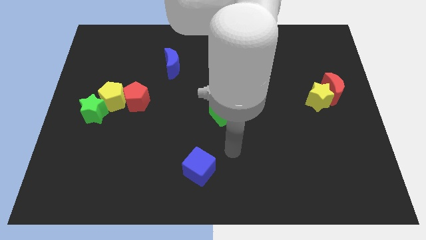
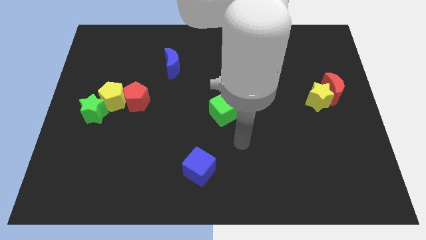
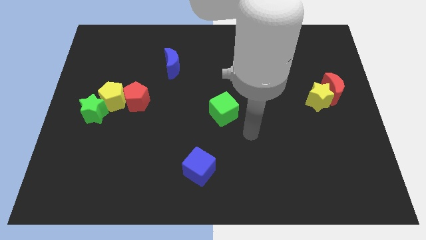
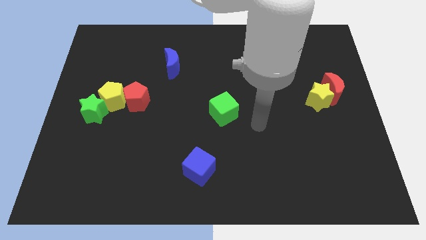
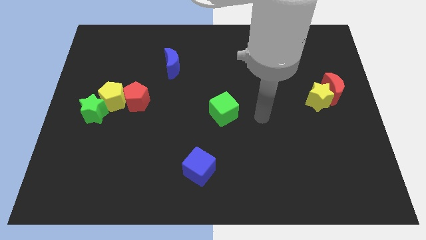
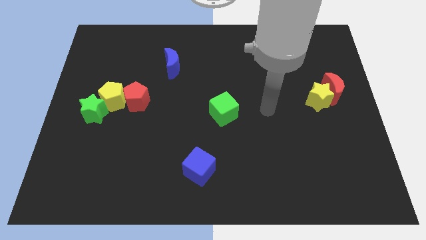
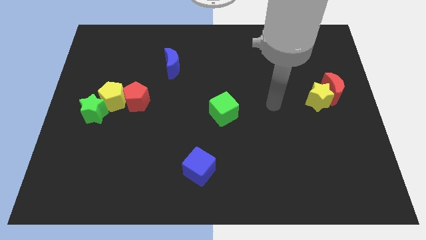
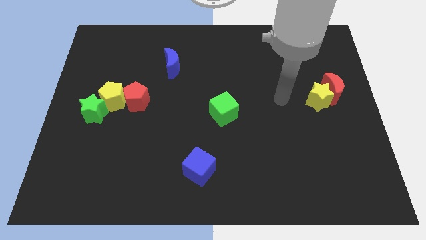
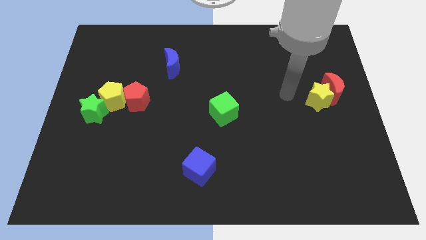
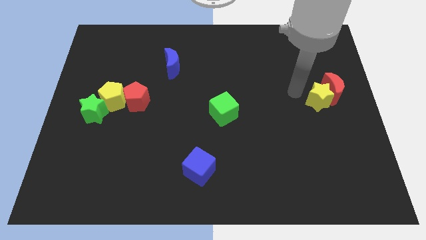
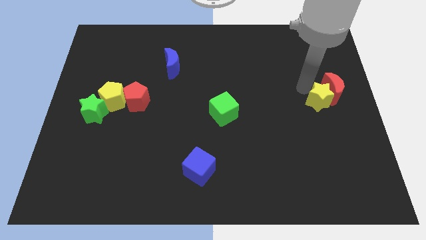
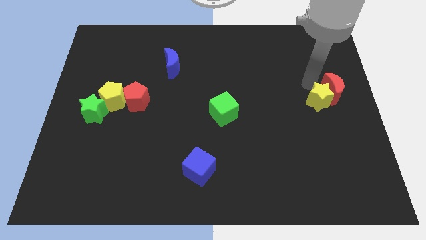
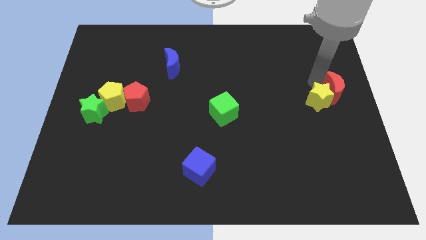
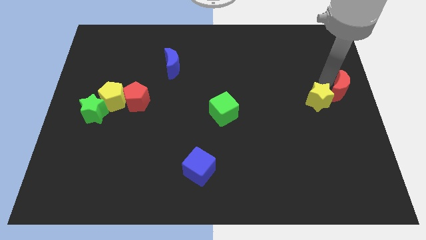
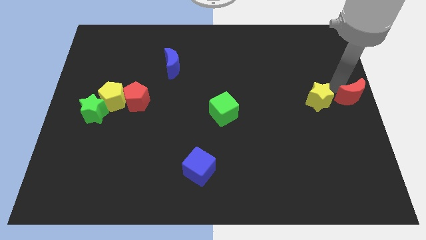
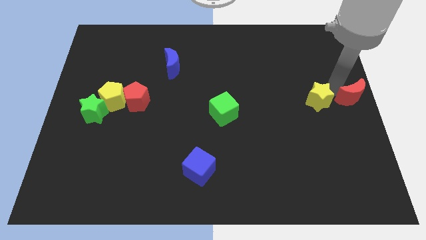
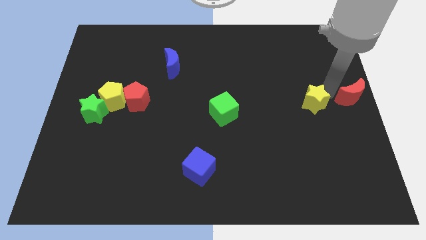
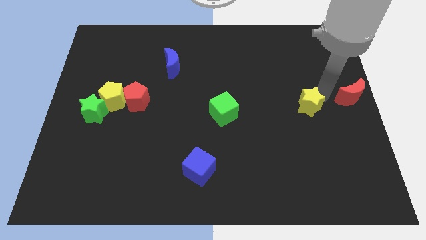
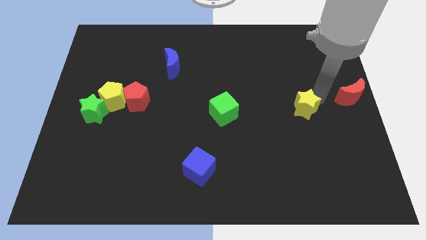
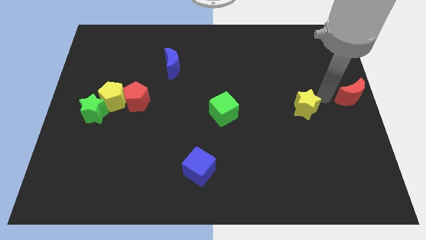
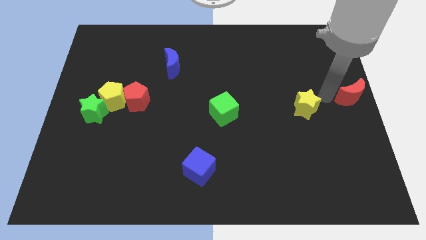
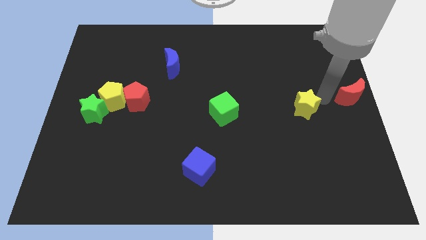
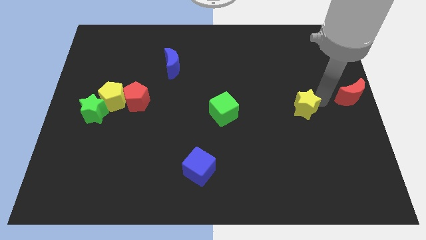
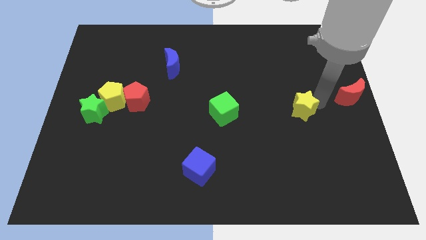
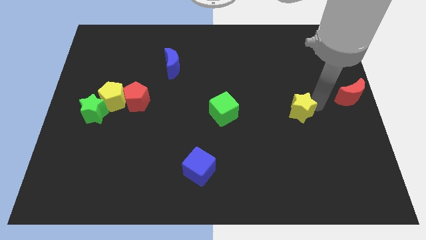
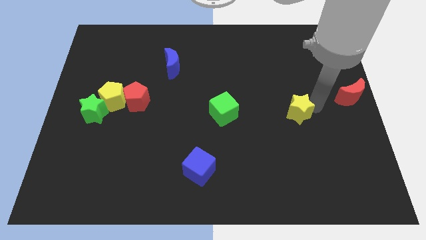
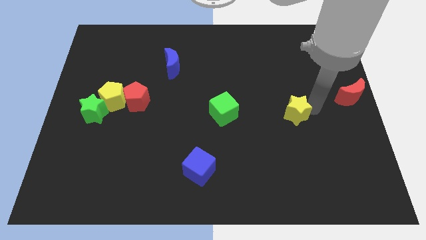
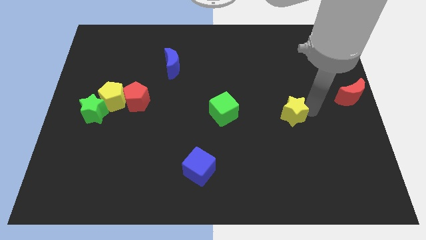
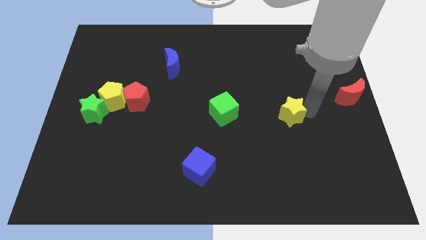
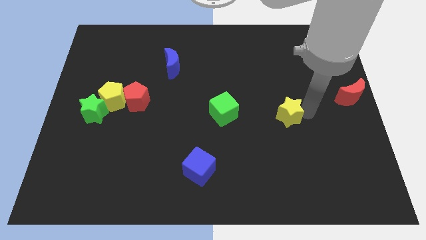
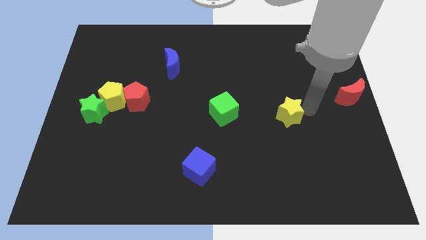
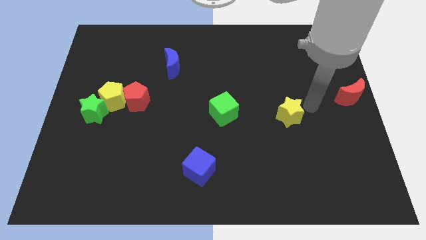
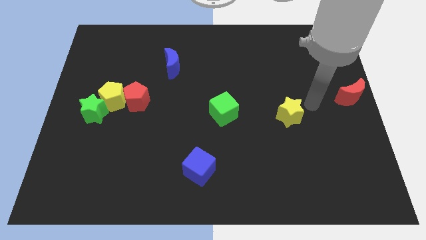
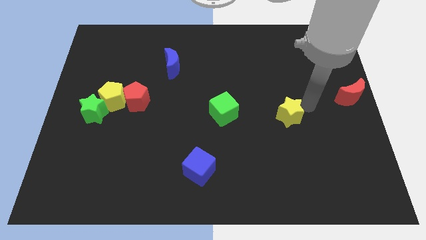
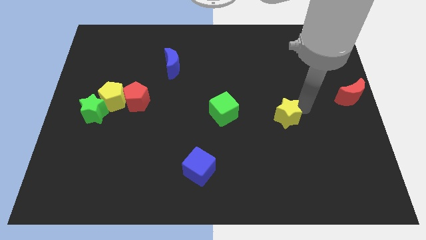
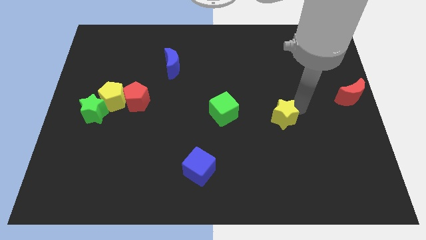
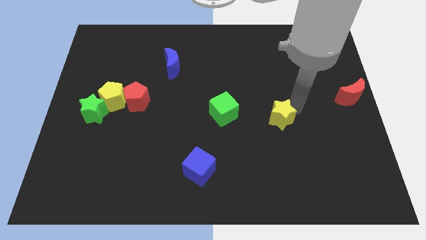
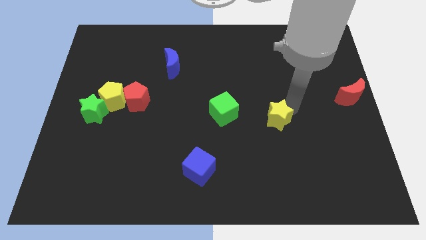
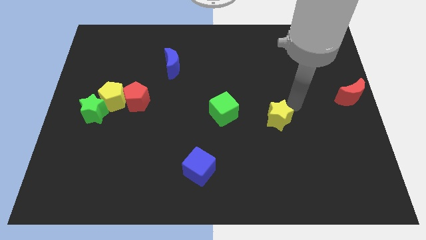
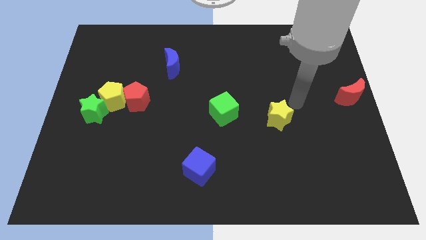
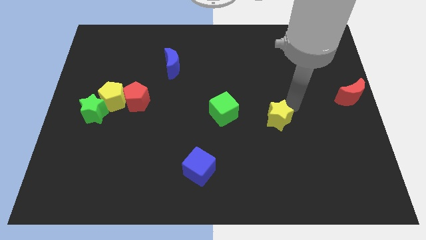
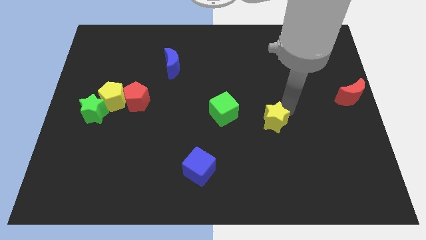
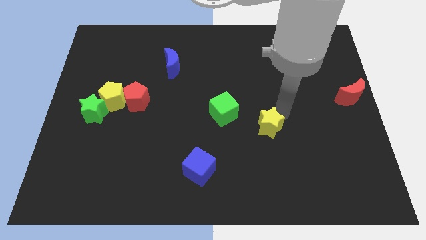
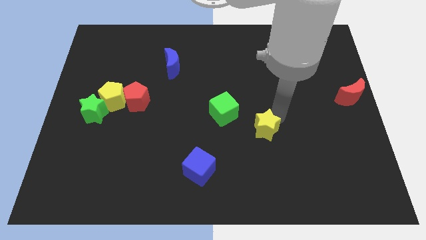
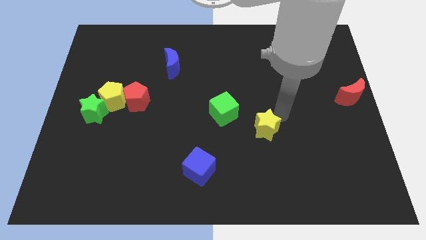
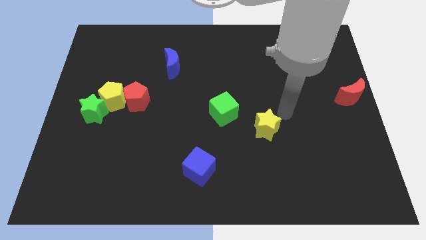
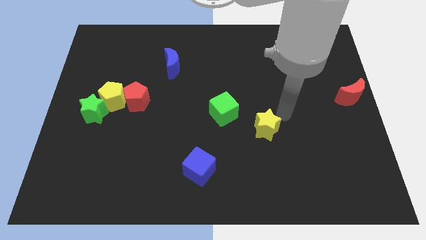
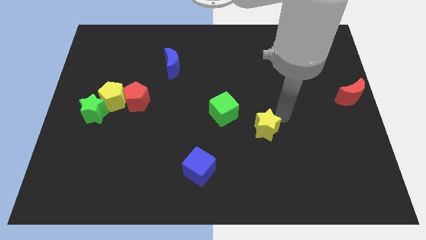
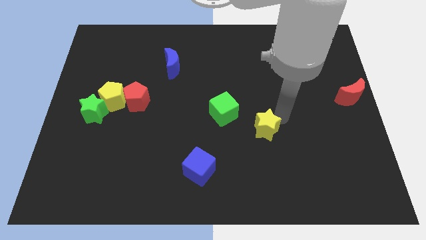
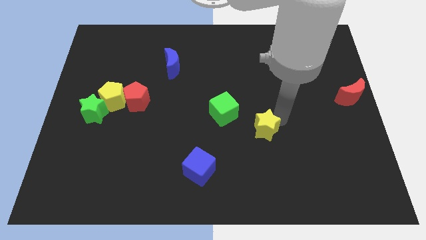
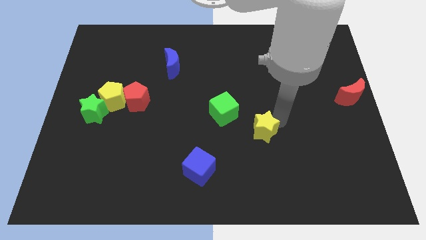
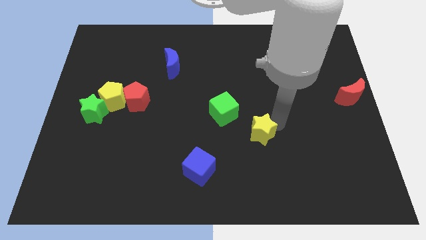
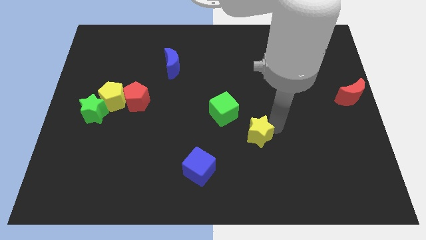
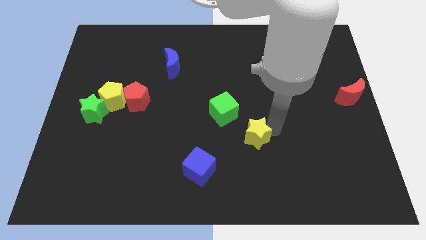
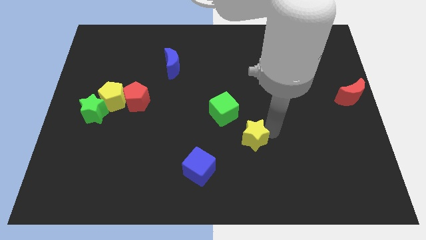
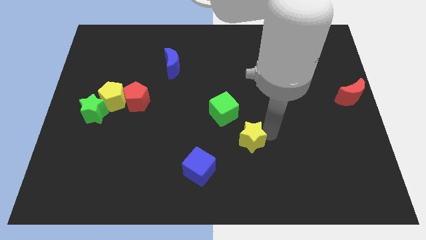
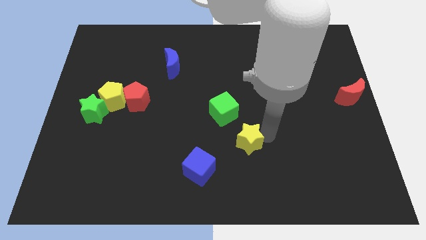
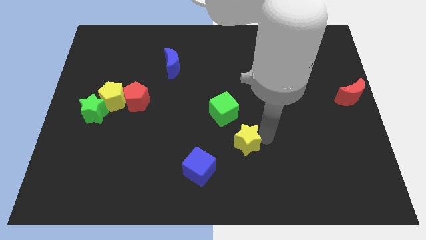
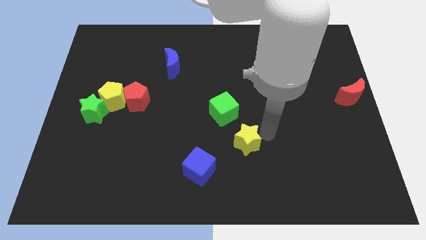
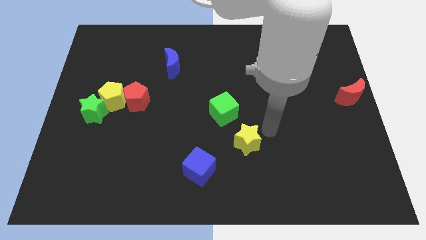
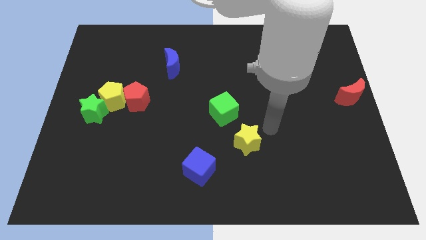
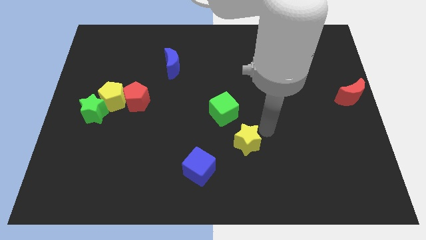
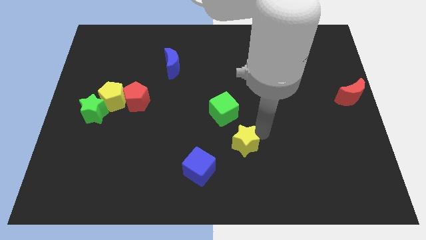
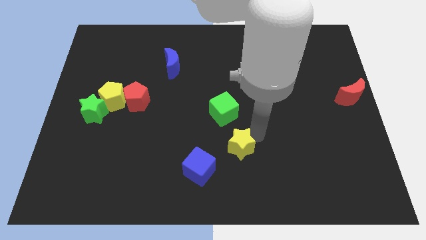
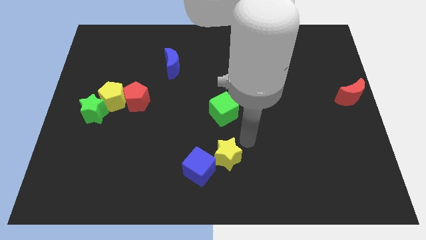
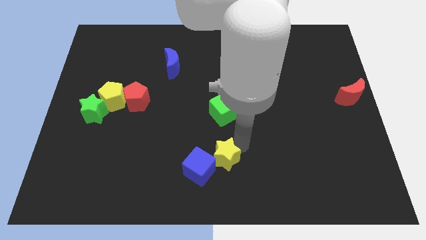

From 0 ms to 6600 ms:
move the yellow star to the blue cube

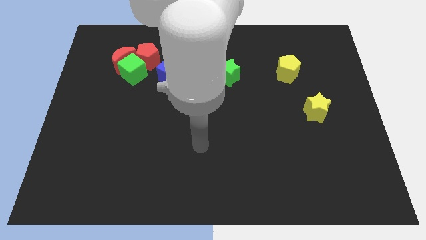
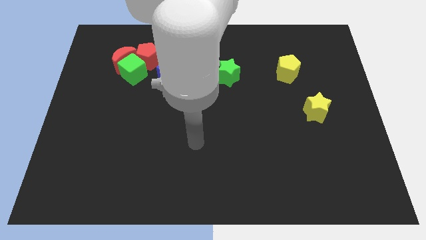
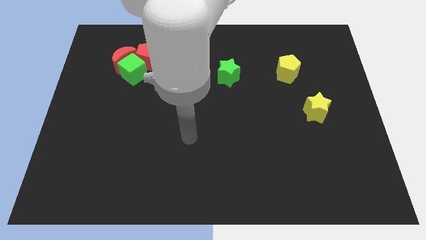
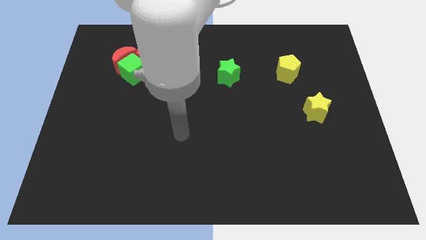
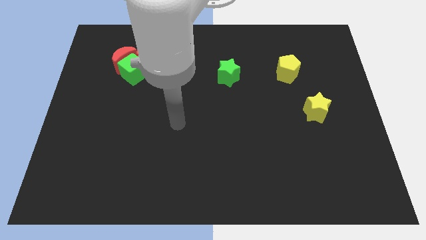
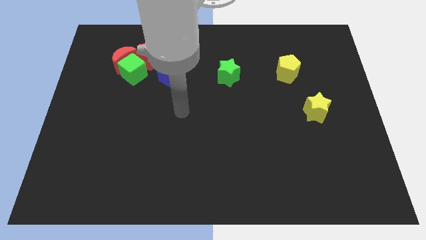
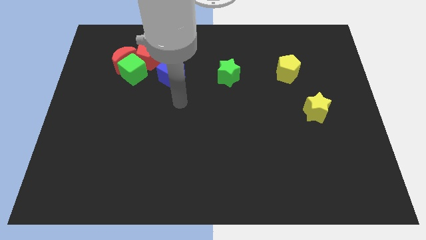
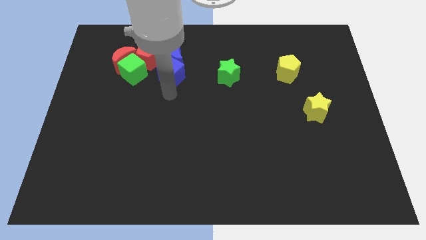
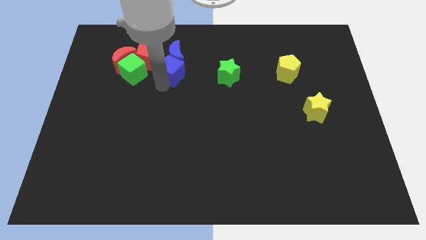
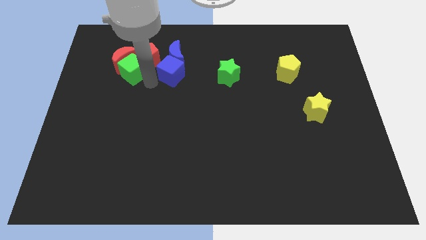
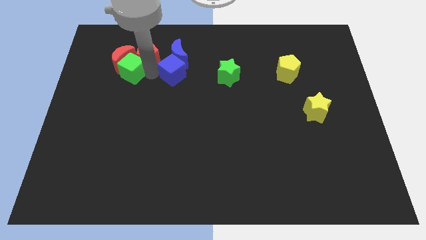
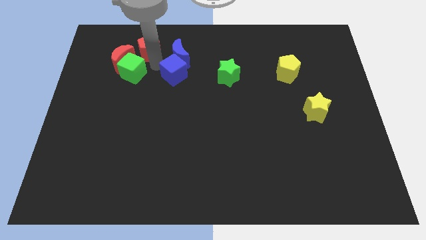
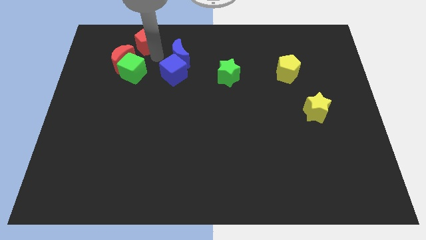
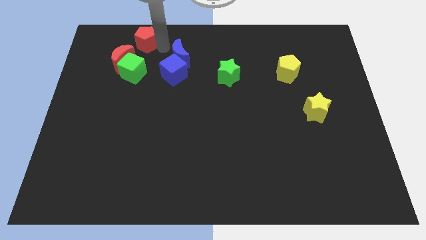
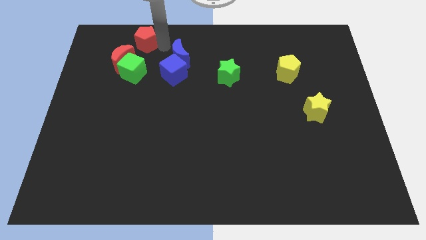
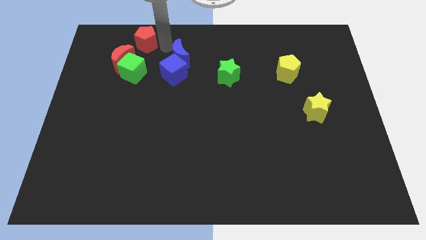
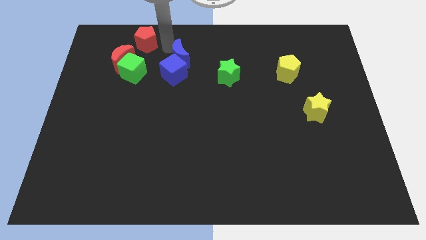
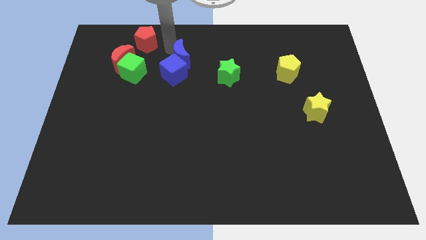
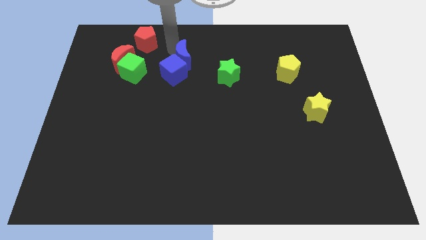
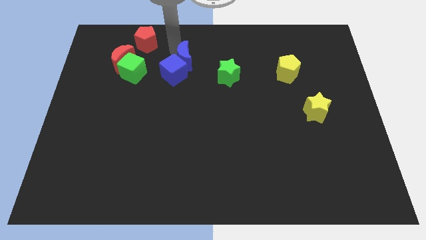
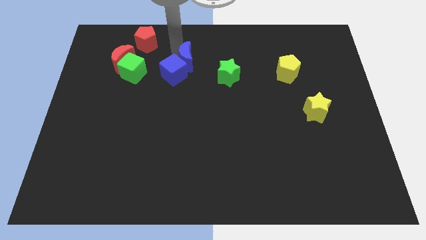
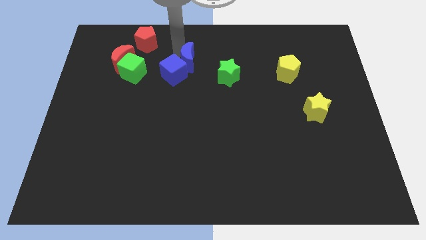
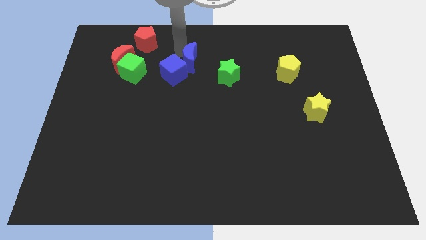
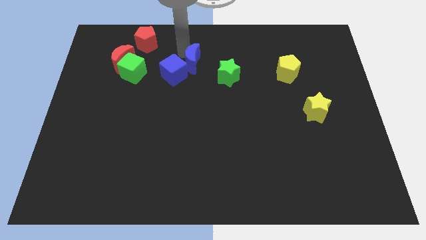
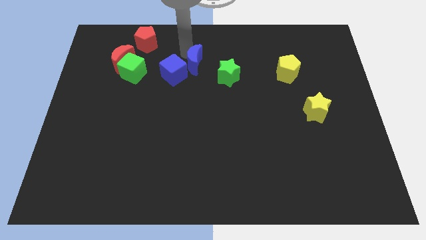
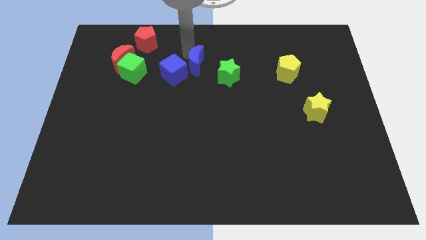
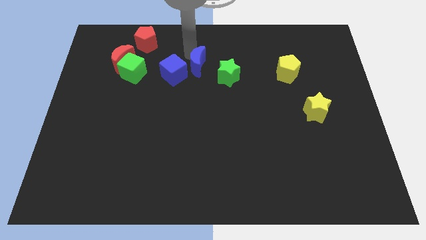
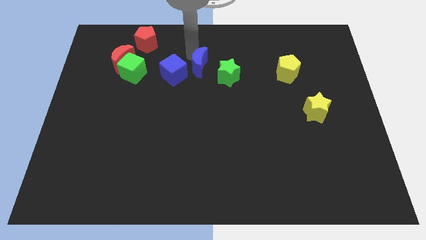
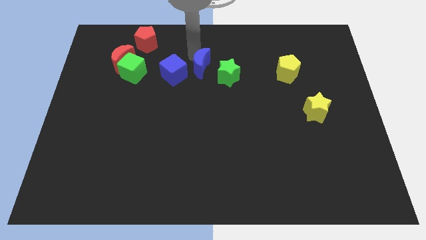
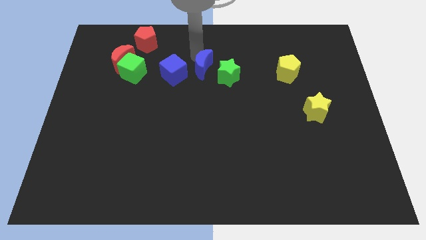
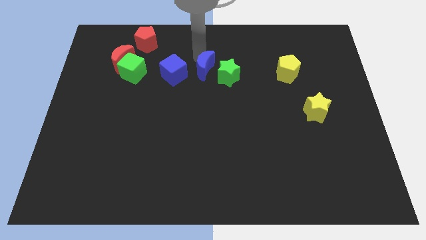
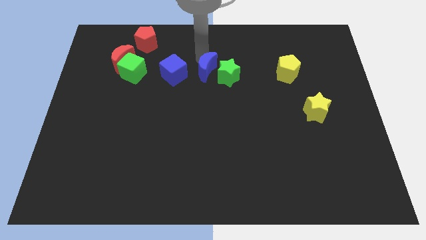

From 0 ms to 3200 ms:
put the blue moon to the green star
